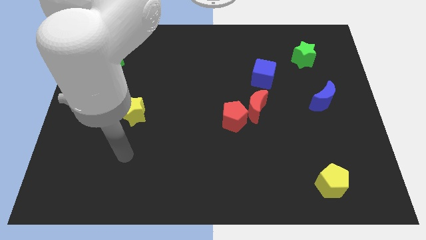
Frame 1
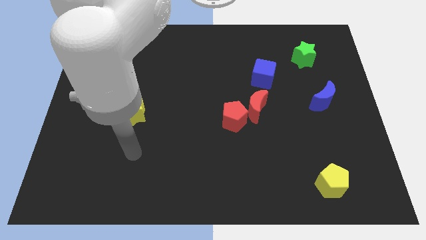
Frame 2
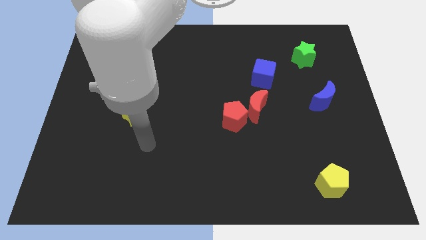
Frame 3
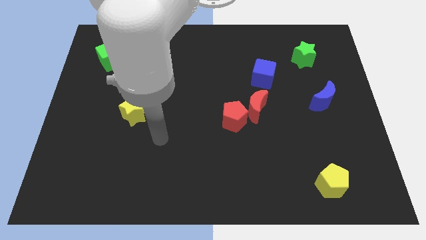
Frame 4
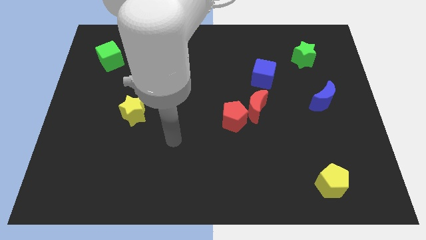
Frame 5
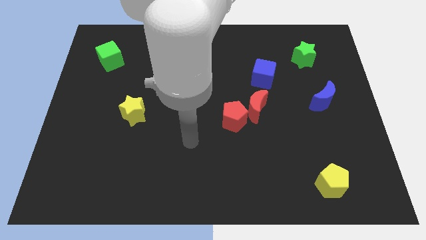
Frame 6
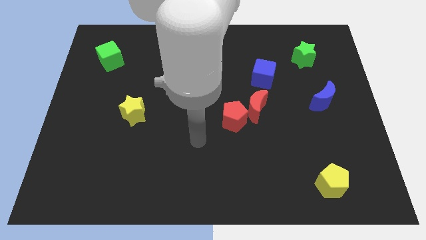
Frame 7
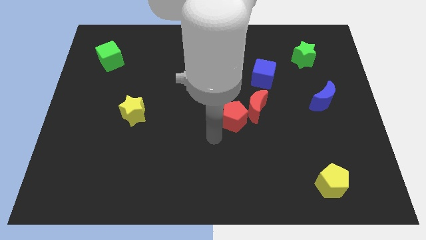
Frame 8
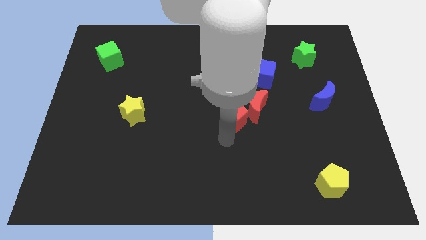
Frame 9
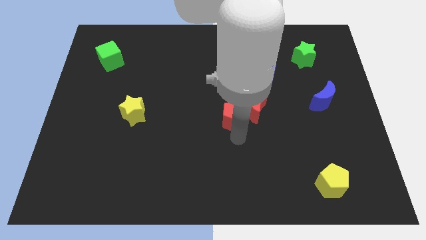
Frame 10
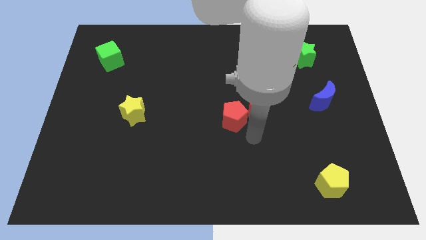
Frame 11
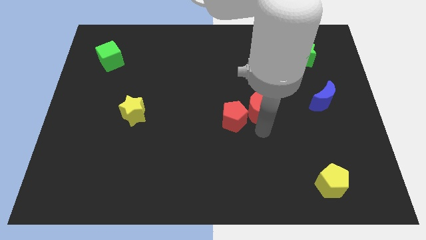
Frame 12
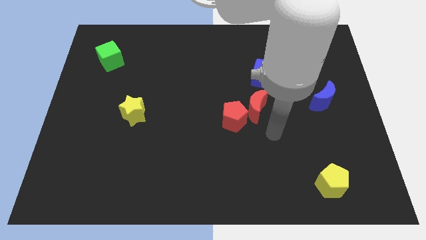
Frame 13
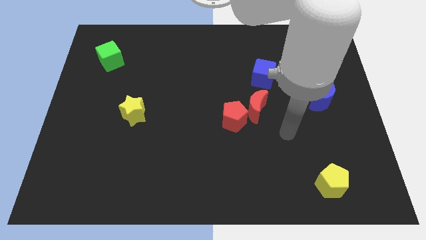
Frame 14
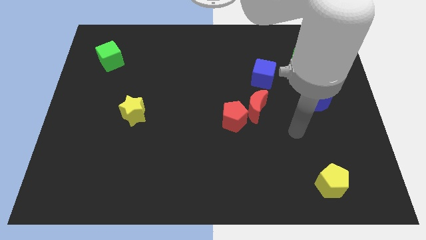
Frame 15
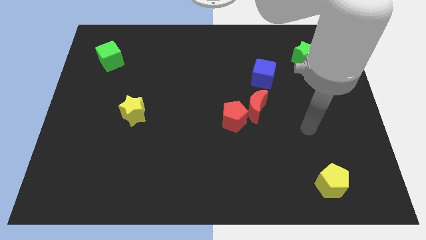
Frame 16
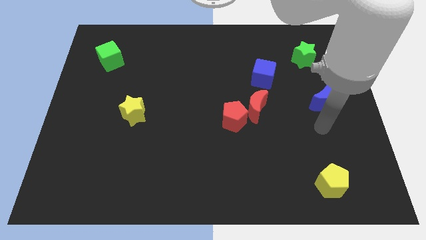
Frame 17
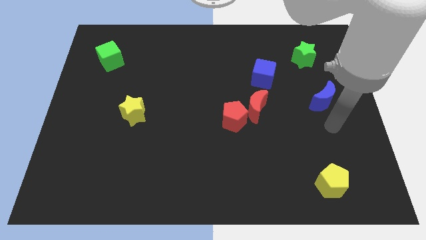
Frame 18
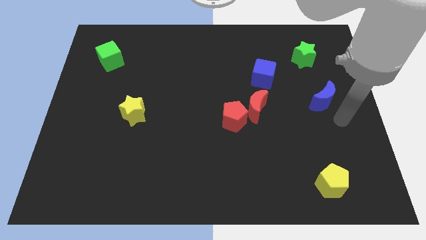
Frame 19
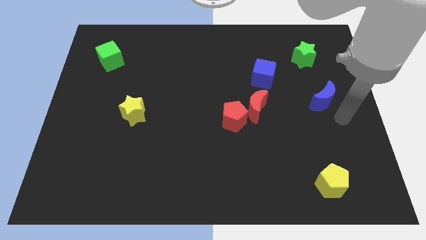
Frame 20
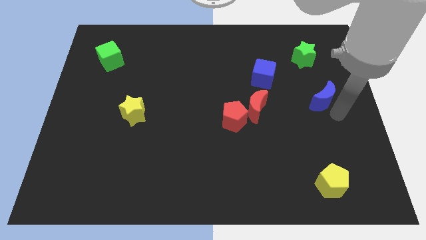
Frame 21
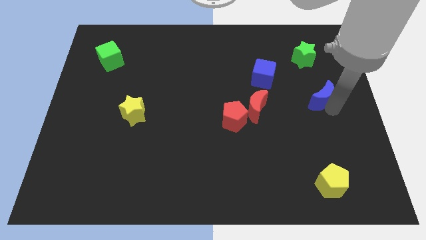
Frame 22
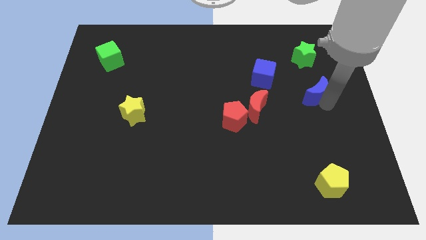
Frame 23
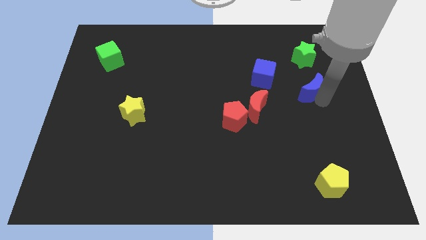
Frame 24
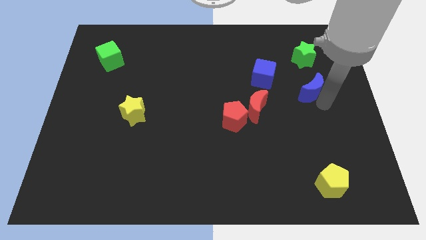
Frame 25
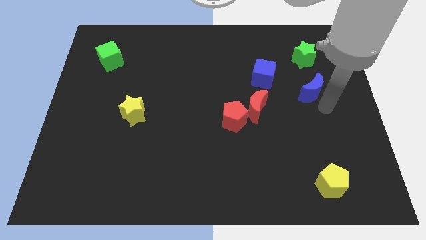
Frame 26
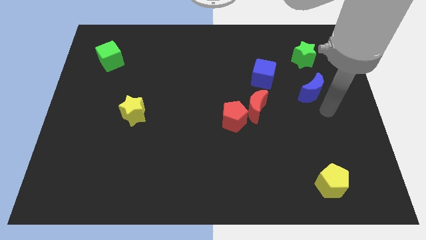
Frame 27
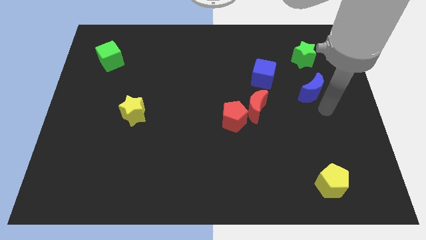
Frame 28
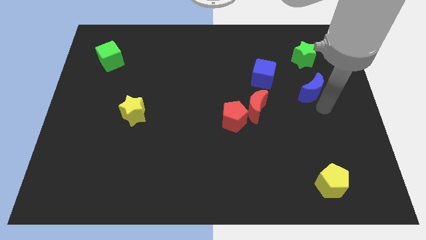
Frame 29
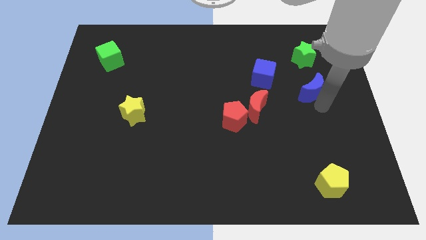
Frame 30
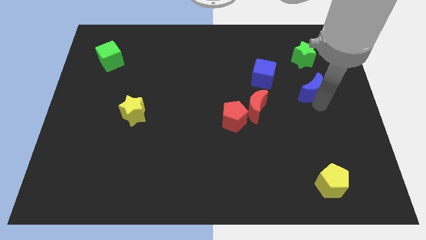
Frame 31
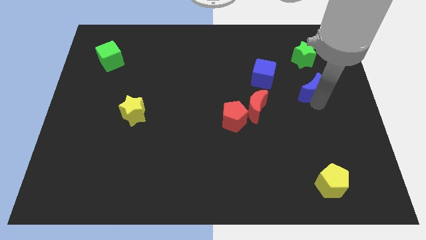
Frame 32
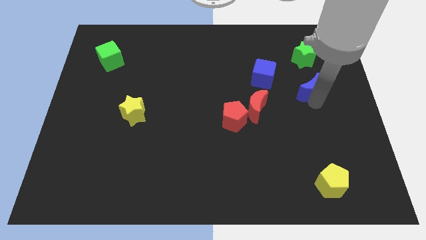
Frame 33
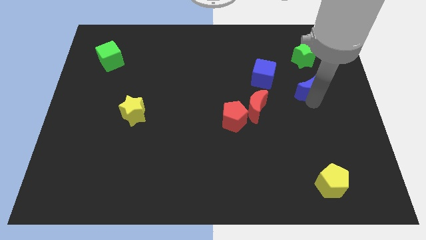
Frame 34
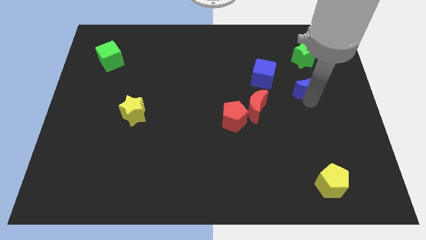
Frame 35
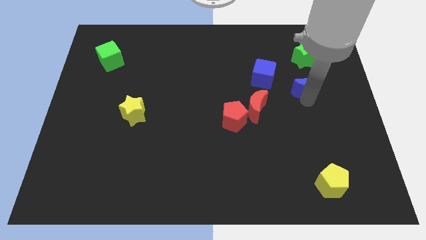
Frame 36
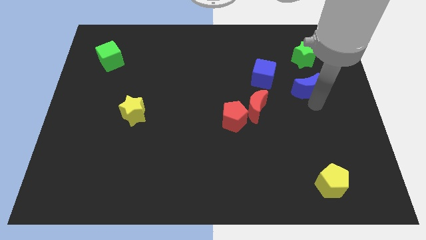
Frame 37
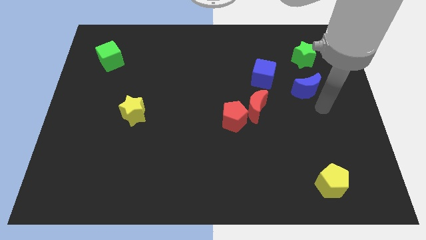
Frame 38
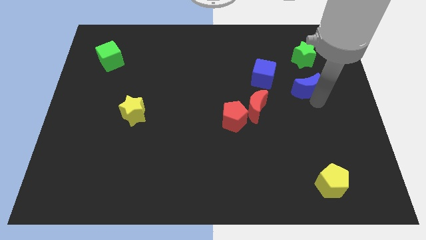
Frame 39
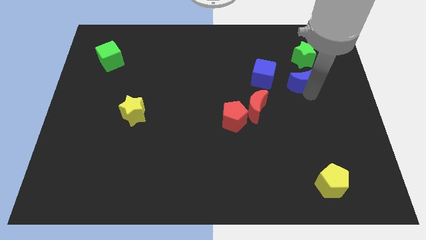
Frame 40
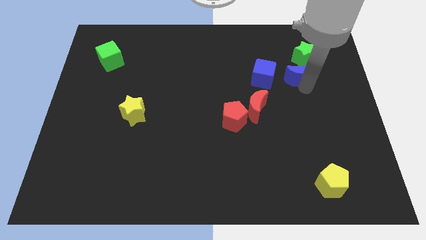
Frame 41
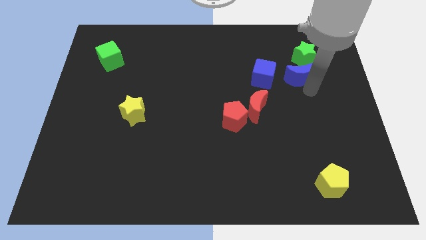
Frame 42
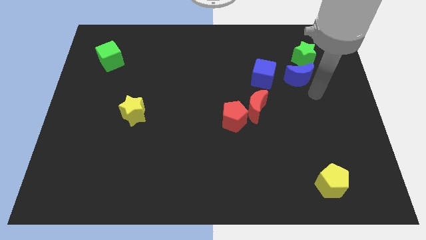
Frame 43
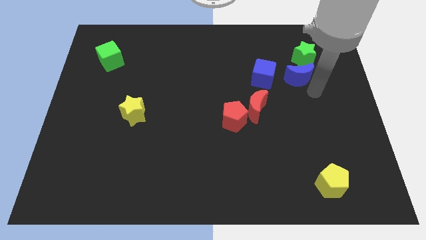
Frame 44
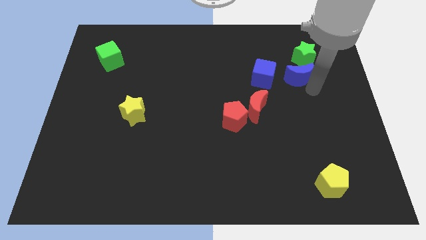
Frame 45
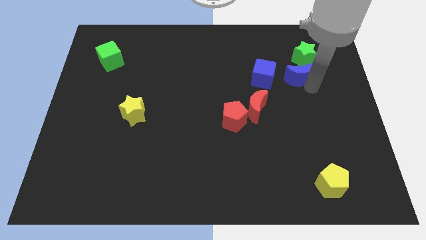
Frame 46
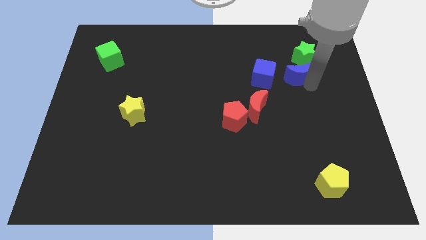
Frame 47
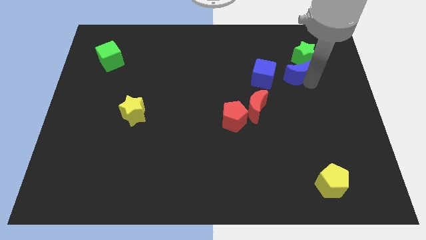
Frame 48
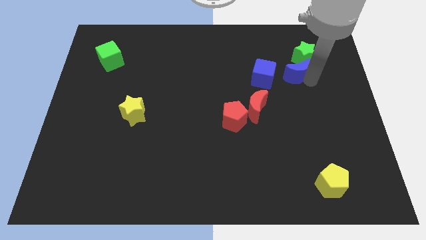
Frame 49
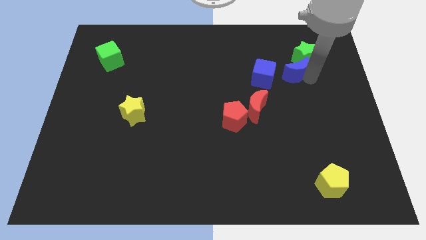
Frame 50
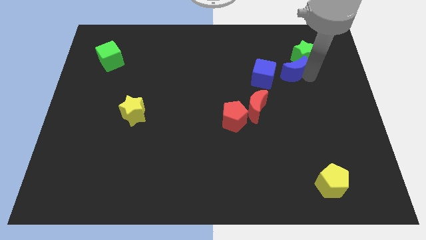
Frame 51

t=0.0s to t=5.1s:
slide the blue moon to the top right side of the blue cube

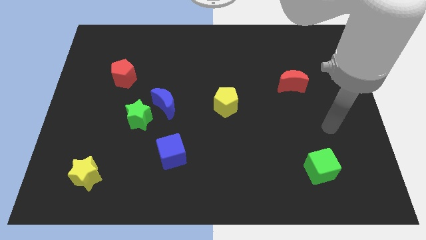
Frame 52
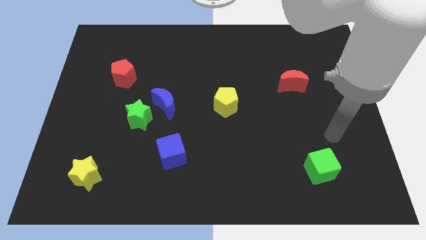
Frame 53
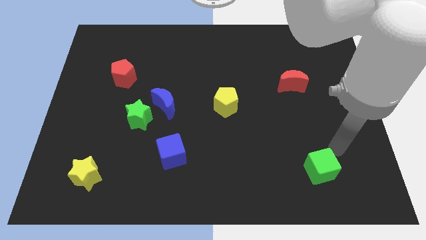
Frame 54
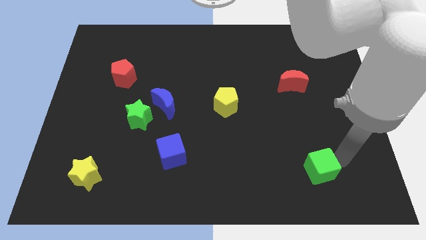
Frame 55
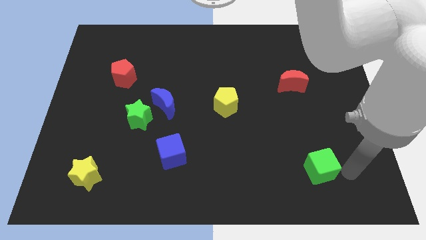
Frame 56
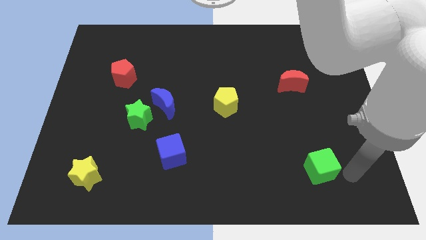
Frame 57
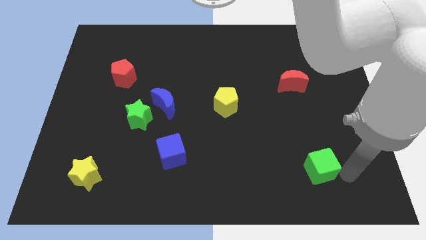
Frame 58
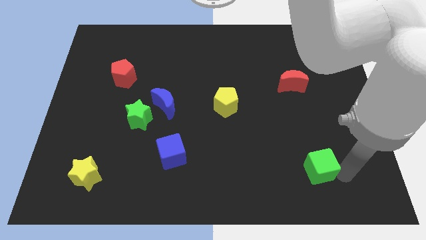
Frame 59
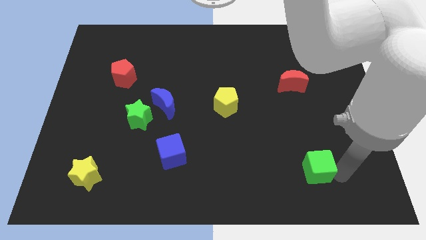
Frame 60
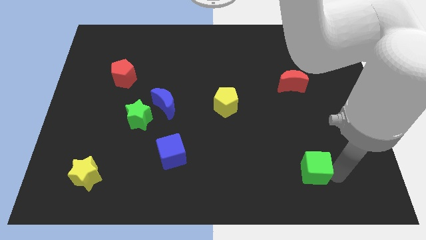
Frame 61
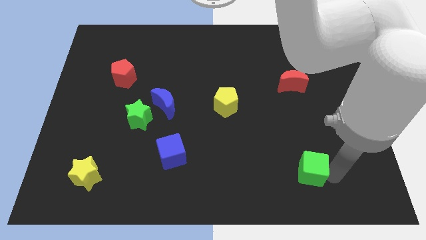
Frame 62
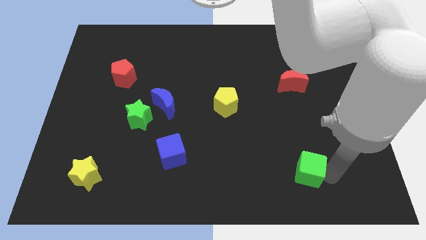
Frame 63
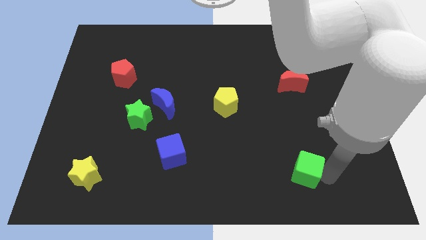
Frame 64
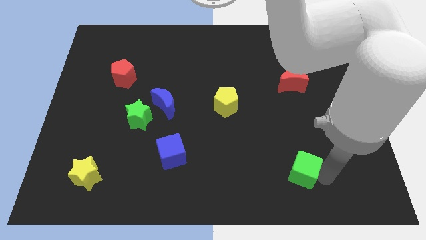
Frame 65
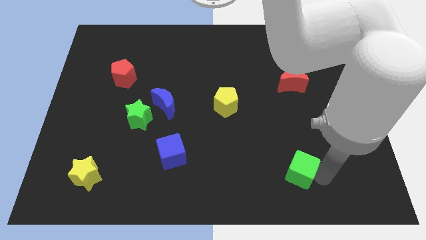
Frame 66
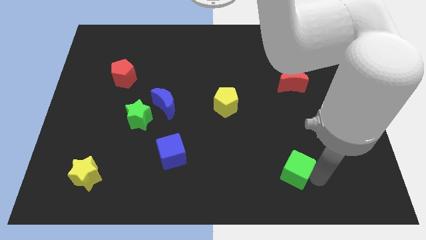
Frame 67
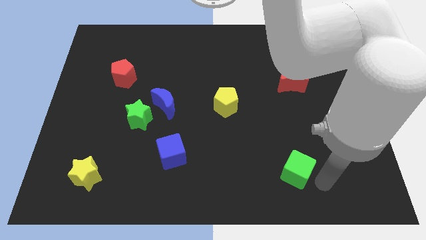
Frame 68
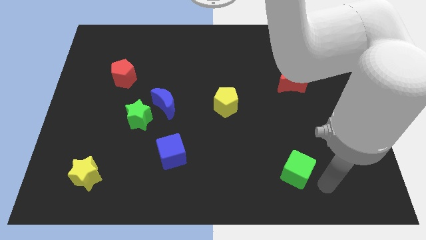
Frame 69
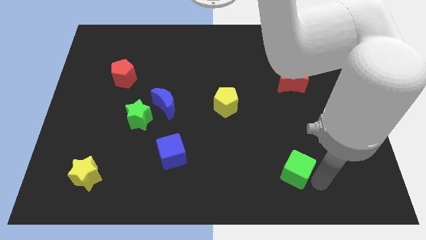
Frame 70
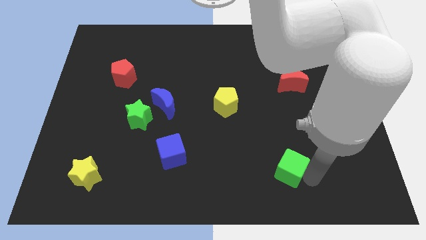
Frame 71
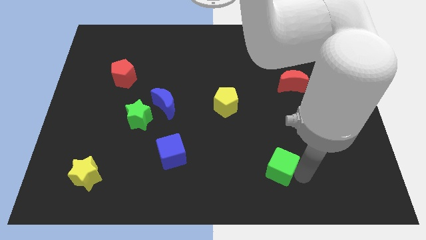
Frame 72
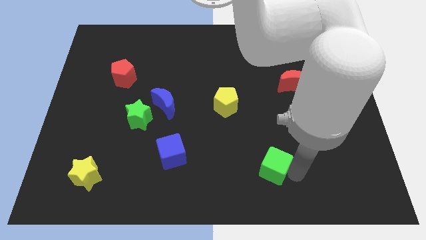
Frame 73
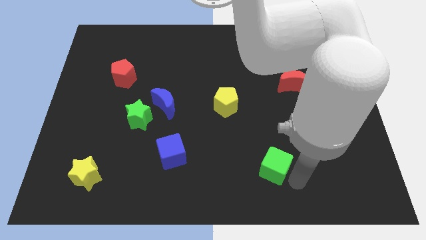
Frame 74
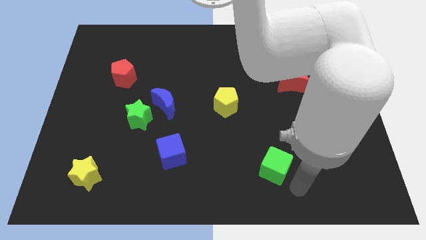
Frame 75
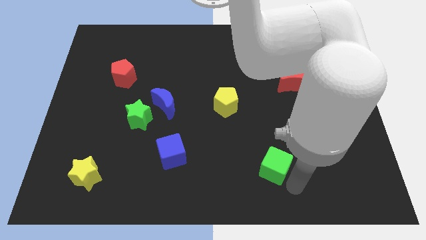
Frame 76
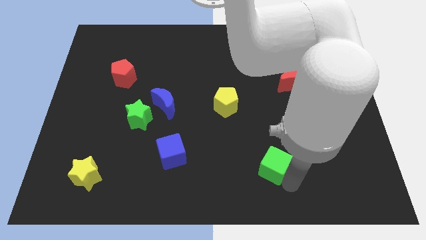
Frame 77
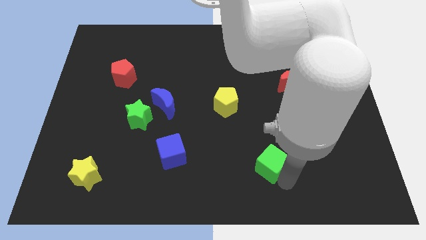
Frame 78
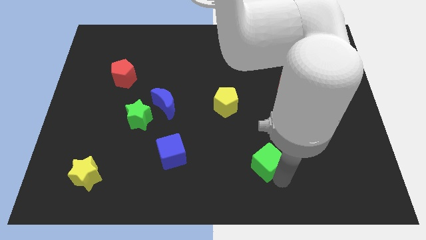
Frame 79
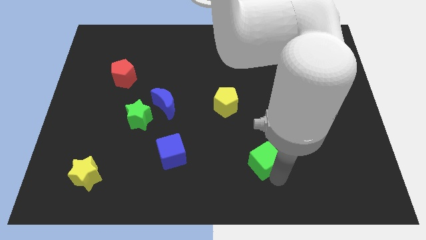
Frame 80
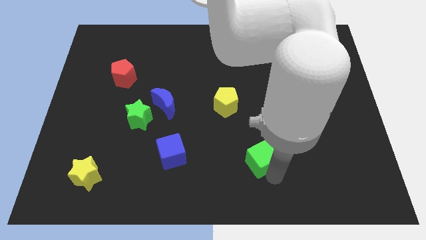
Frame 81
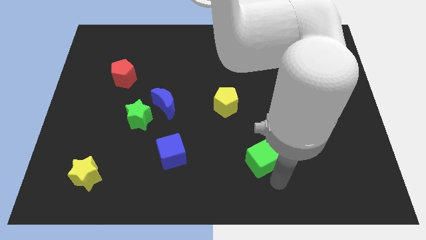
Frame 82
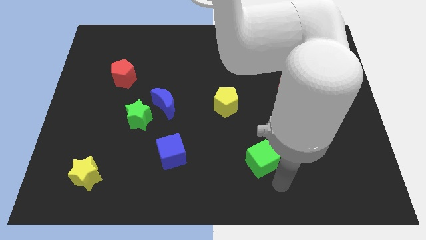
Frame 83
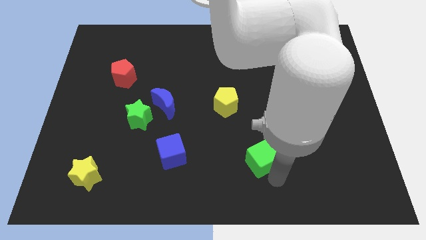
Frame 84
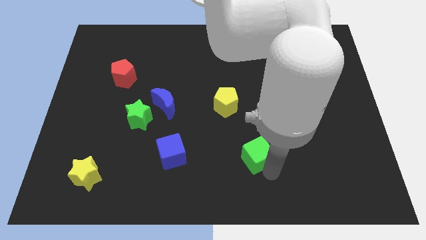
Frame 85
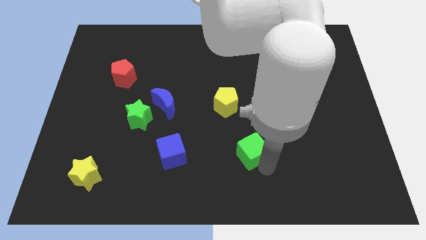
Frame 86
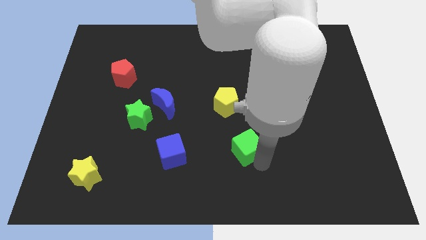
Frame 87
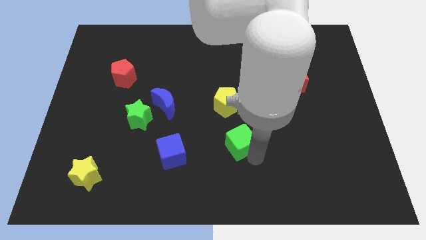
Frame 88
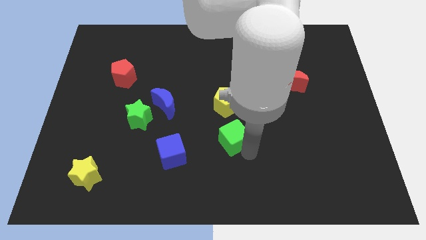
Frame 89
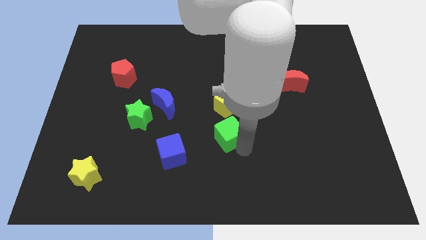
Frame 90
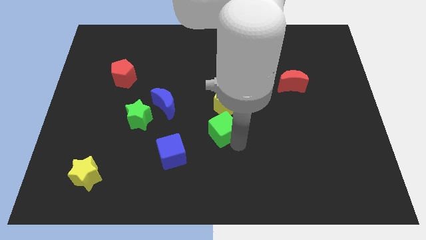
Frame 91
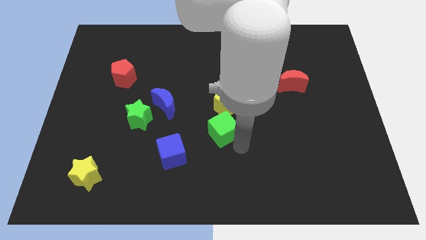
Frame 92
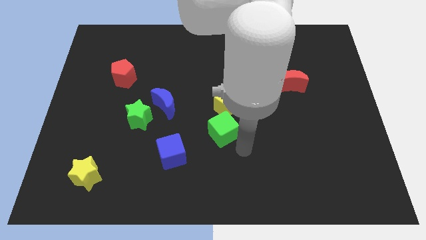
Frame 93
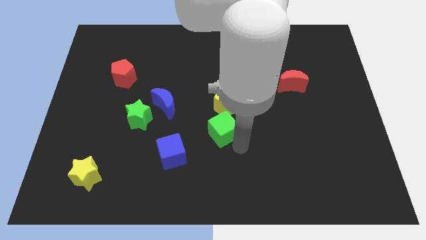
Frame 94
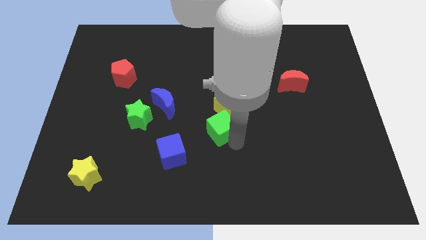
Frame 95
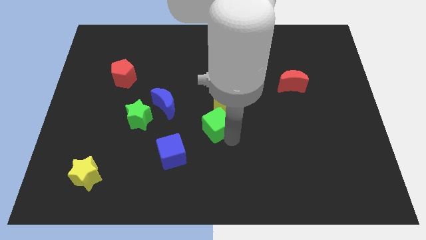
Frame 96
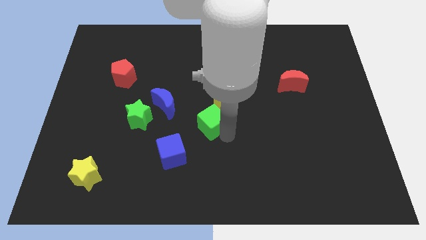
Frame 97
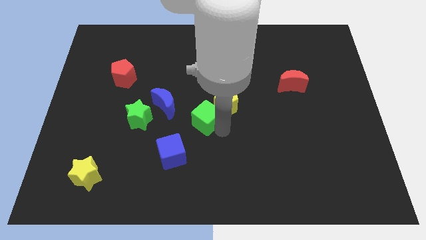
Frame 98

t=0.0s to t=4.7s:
put the green cube to the right of the green star
